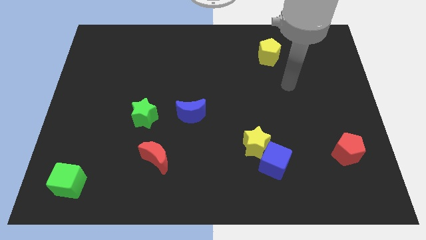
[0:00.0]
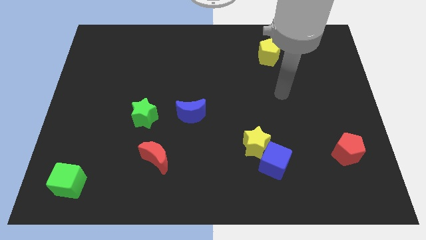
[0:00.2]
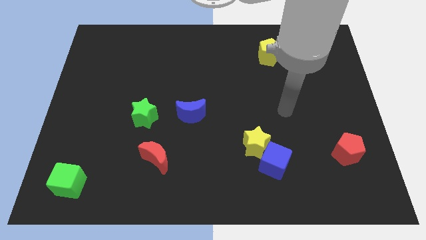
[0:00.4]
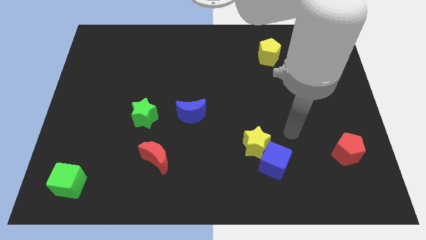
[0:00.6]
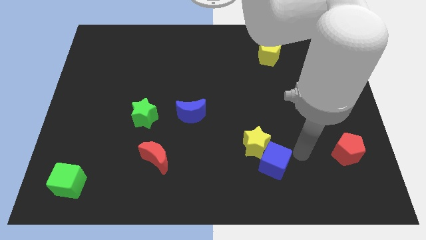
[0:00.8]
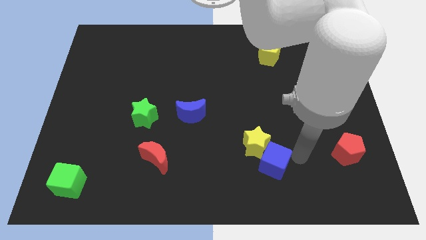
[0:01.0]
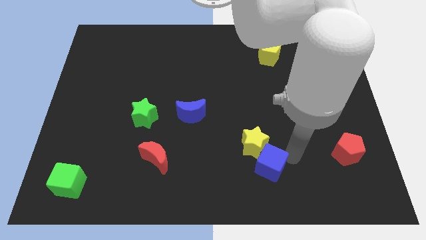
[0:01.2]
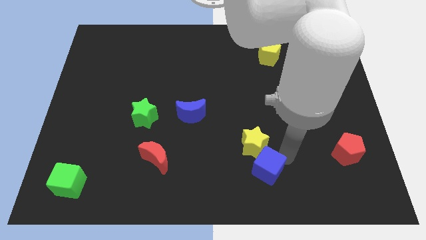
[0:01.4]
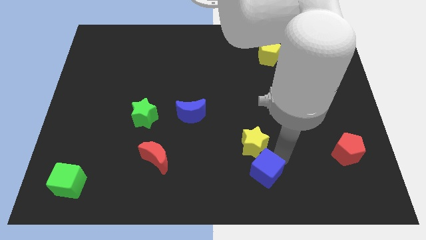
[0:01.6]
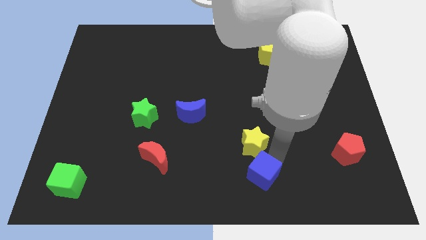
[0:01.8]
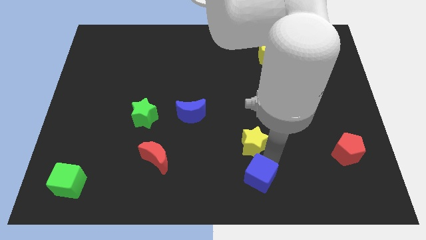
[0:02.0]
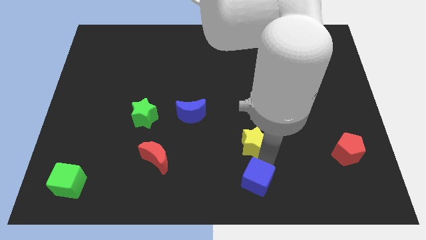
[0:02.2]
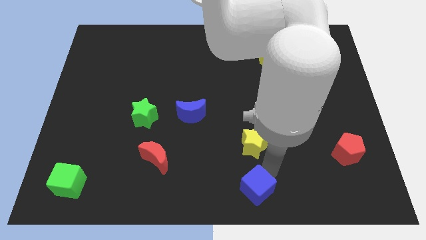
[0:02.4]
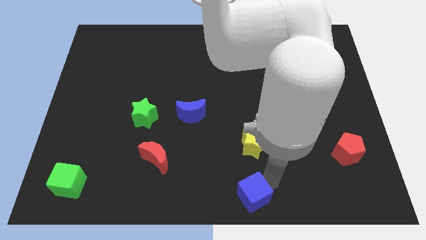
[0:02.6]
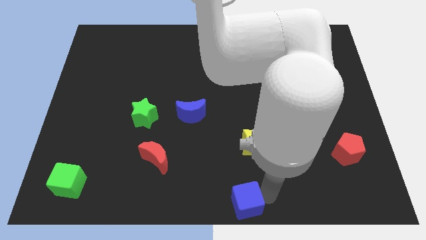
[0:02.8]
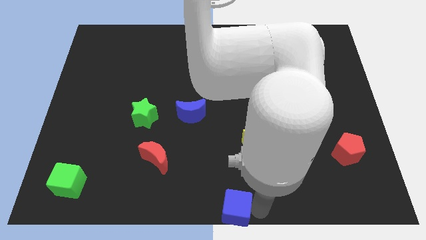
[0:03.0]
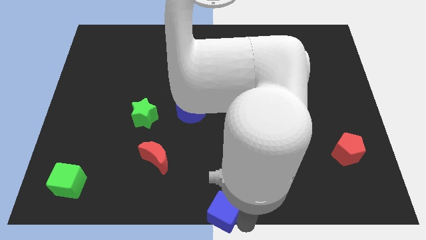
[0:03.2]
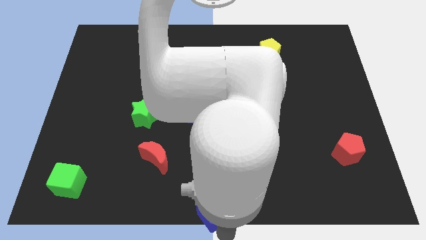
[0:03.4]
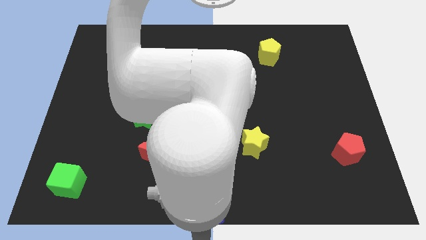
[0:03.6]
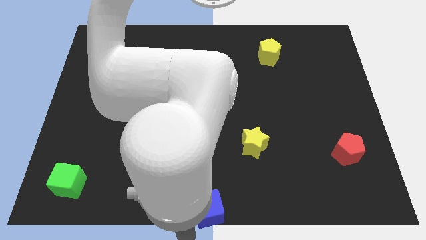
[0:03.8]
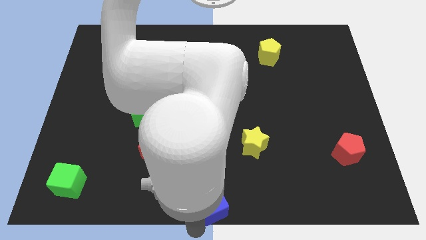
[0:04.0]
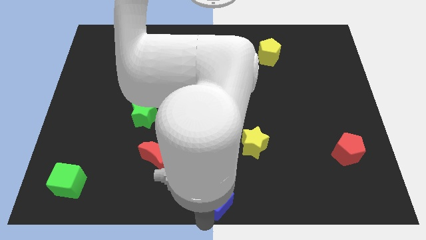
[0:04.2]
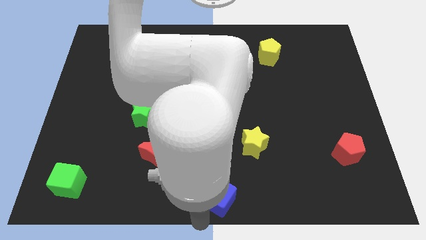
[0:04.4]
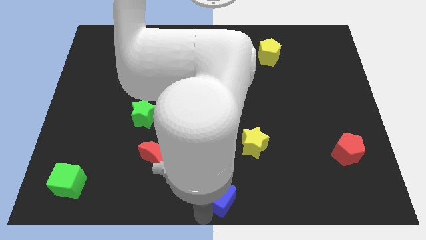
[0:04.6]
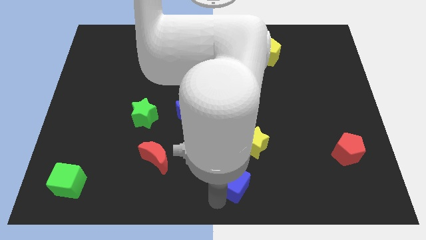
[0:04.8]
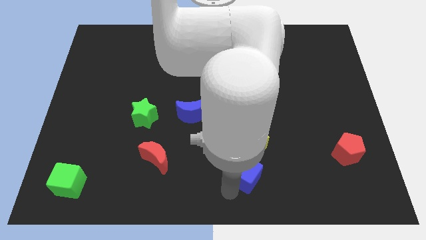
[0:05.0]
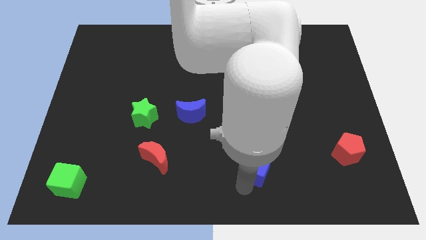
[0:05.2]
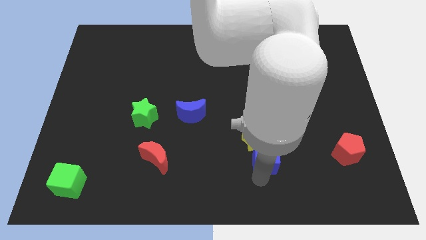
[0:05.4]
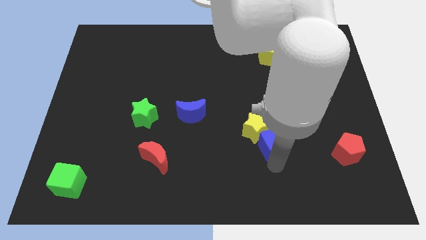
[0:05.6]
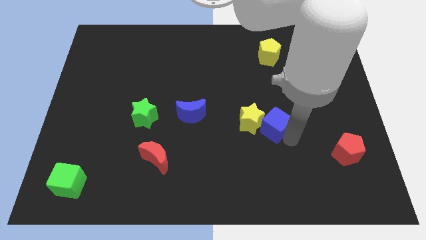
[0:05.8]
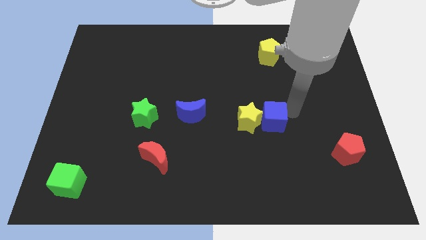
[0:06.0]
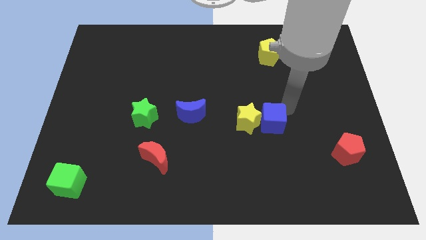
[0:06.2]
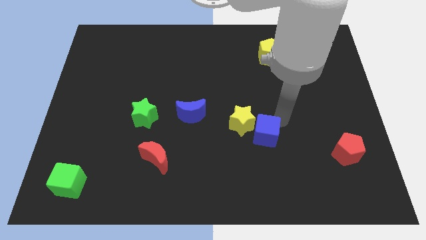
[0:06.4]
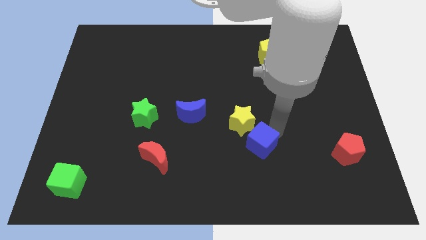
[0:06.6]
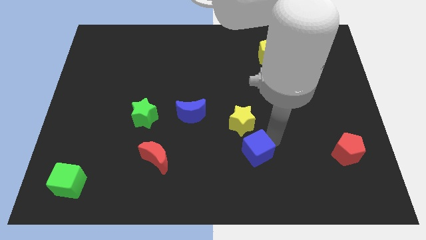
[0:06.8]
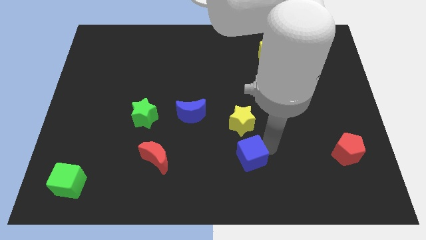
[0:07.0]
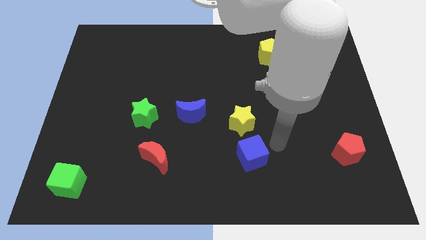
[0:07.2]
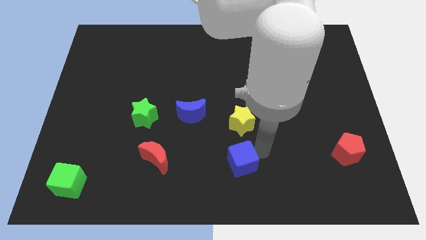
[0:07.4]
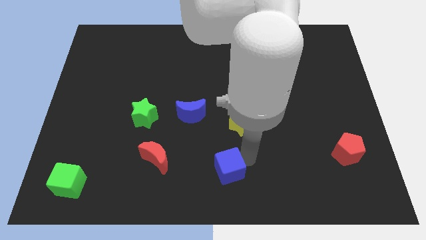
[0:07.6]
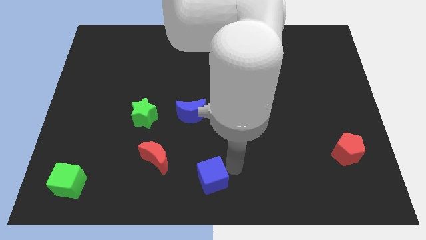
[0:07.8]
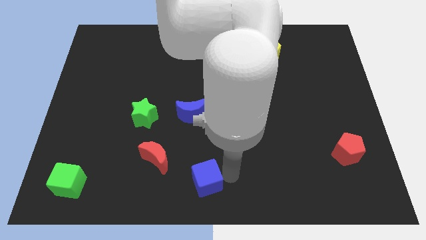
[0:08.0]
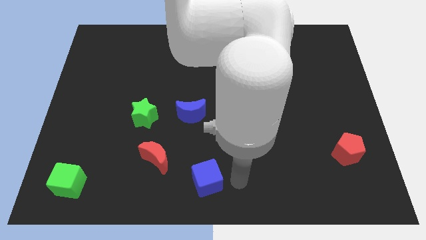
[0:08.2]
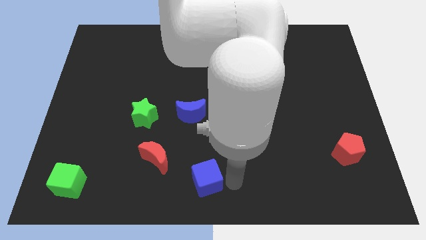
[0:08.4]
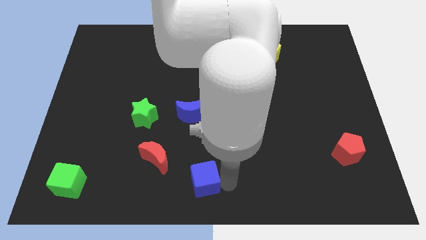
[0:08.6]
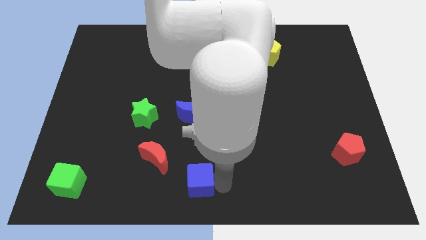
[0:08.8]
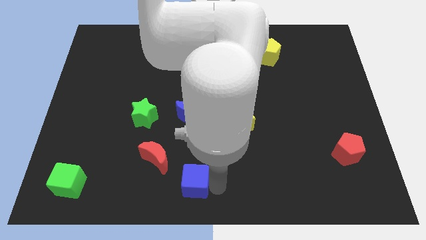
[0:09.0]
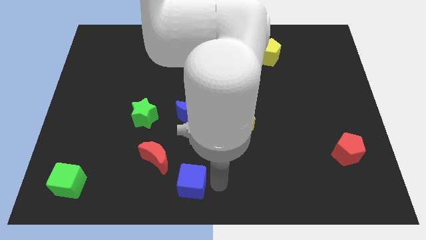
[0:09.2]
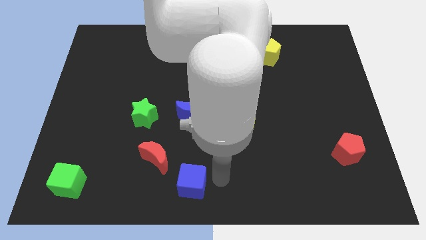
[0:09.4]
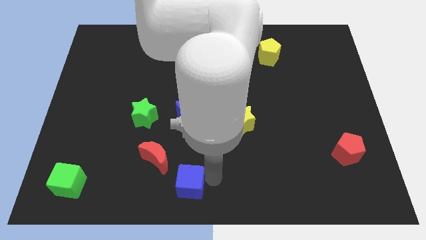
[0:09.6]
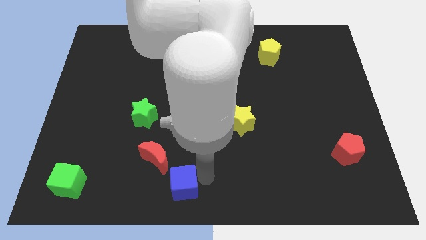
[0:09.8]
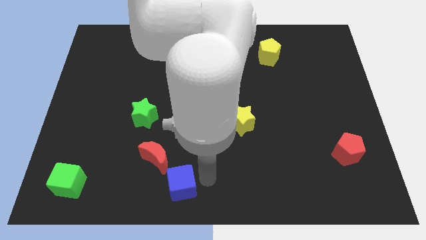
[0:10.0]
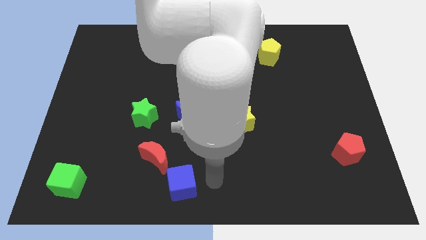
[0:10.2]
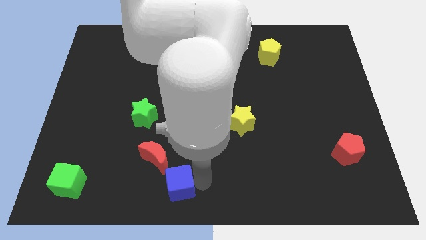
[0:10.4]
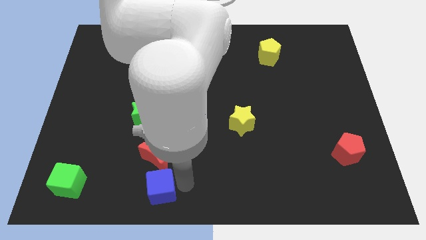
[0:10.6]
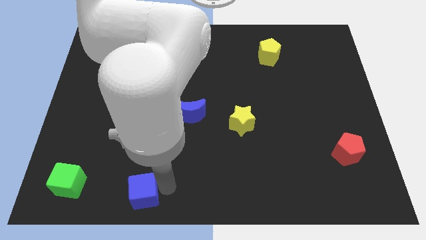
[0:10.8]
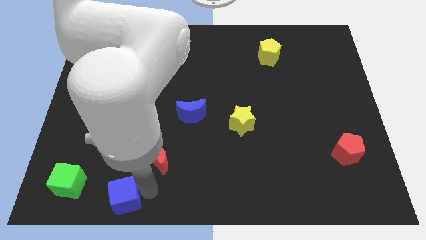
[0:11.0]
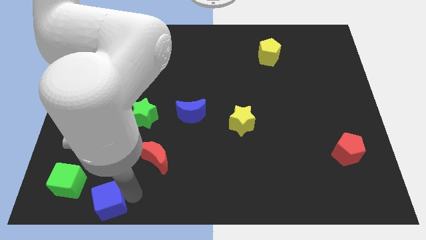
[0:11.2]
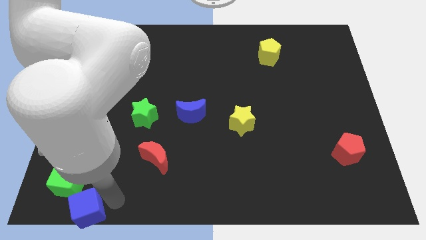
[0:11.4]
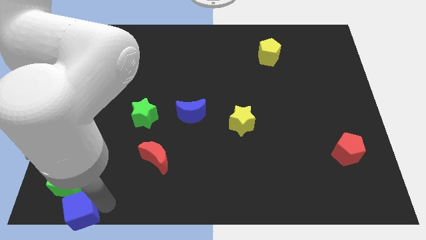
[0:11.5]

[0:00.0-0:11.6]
slide the blue cube to the bottom left
